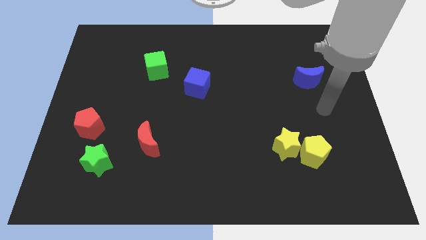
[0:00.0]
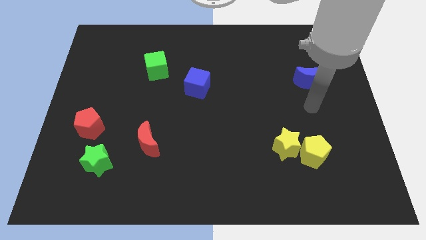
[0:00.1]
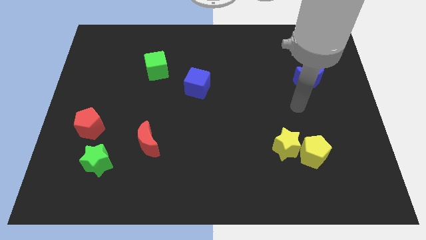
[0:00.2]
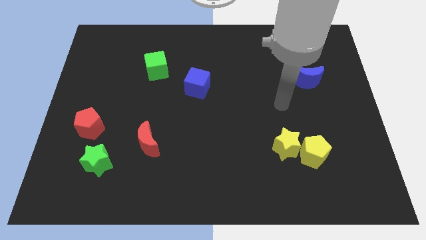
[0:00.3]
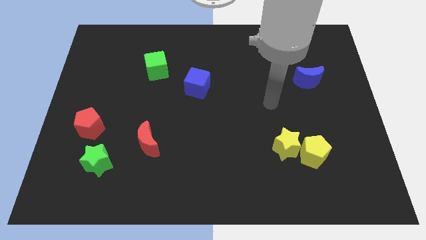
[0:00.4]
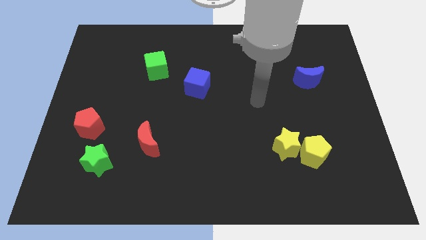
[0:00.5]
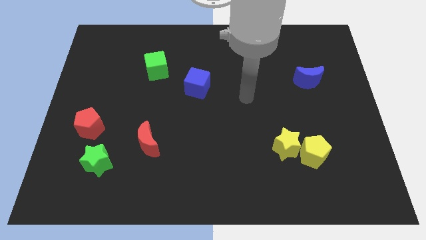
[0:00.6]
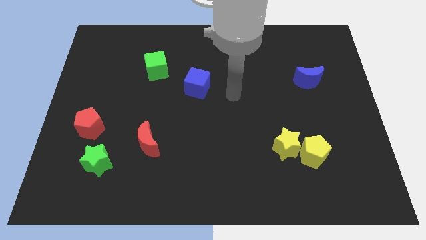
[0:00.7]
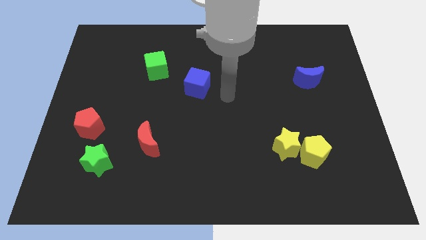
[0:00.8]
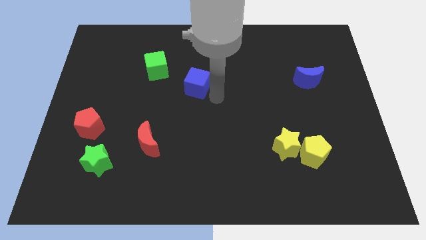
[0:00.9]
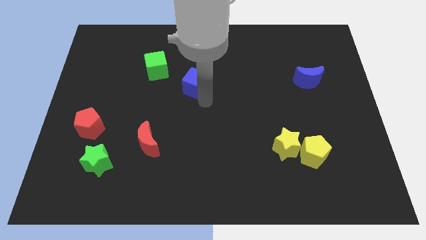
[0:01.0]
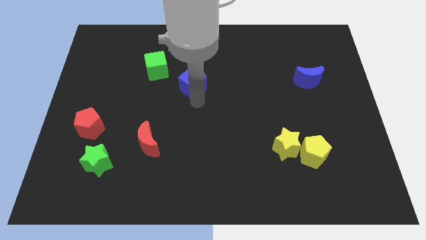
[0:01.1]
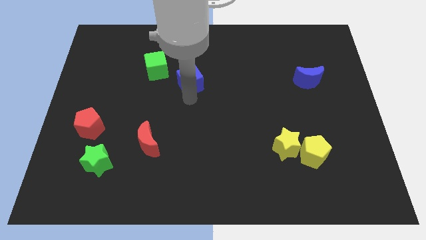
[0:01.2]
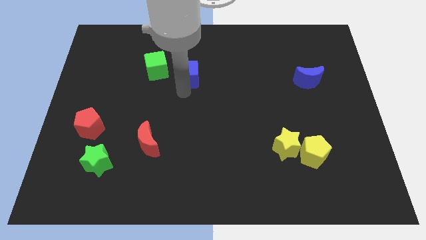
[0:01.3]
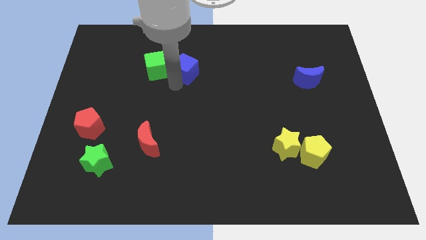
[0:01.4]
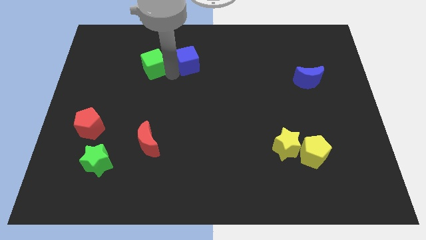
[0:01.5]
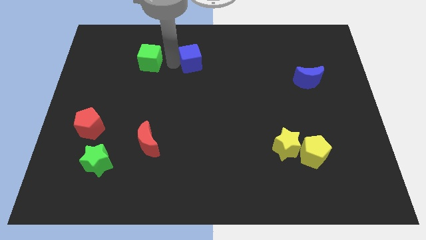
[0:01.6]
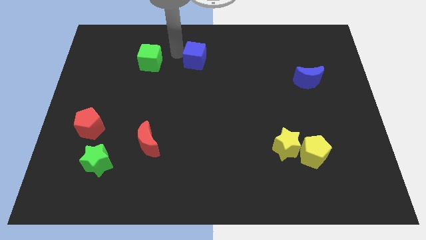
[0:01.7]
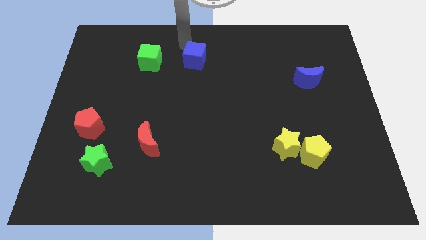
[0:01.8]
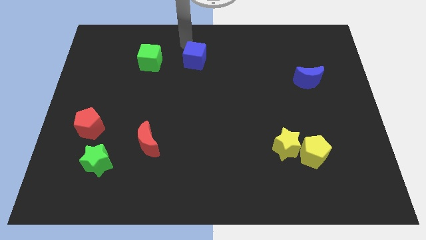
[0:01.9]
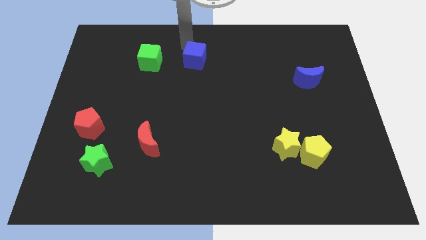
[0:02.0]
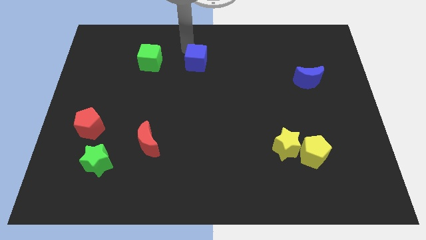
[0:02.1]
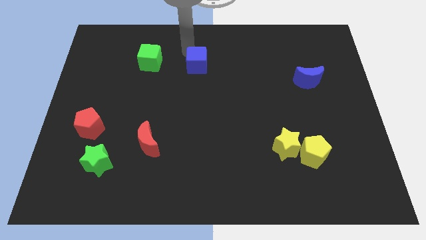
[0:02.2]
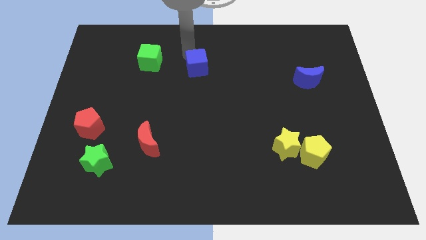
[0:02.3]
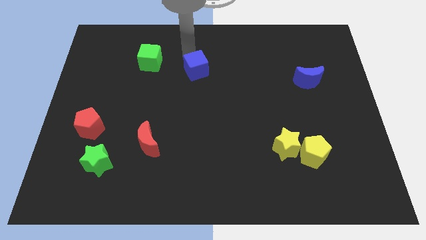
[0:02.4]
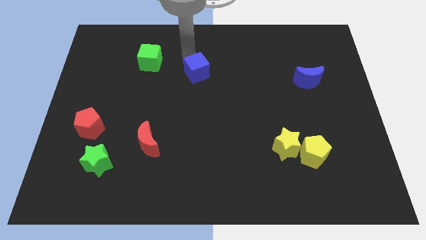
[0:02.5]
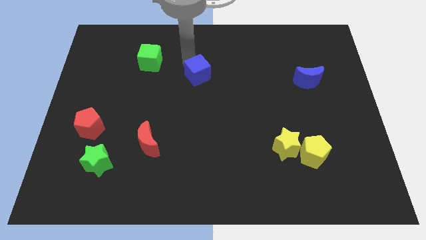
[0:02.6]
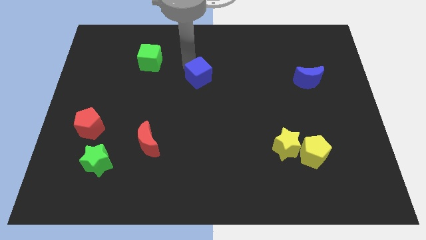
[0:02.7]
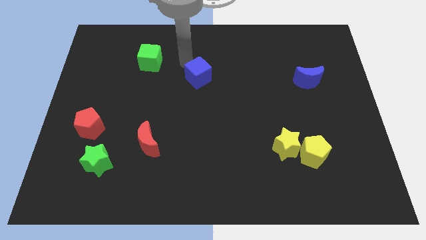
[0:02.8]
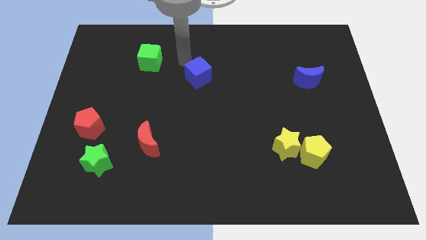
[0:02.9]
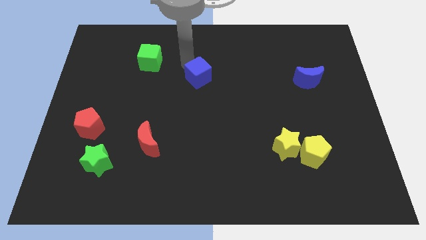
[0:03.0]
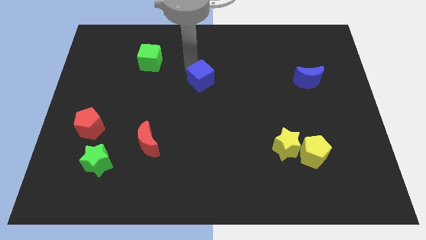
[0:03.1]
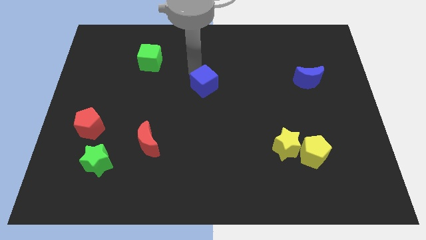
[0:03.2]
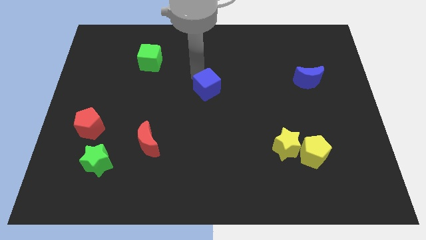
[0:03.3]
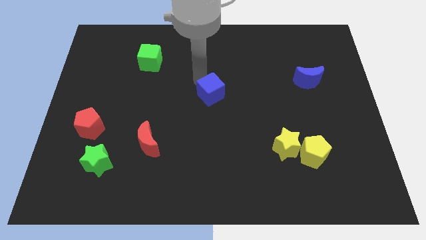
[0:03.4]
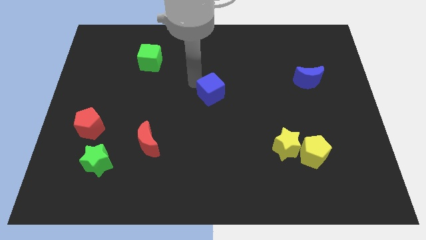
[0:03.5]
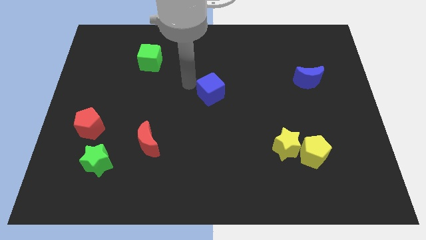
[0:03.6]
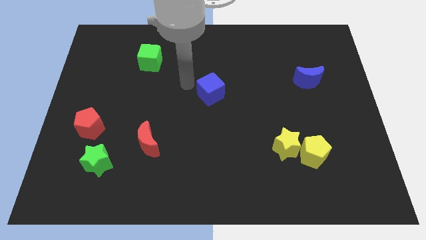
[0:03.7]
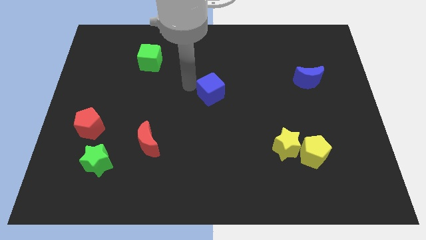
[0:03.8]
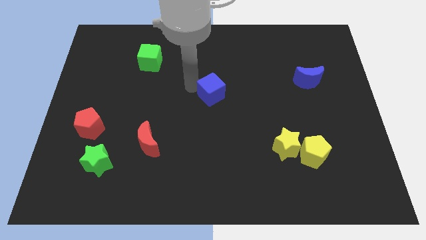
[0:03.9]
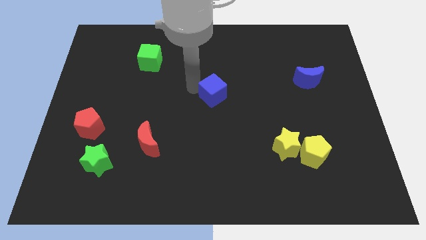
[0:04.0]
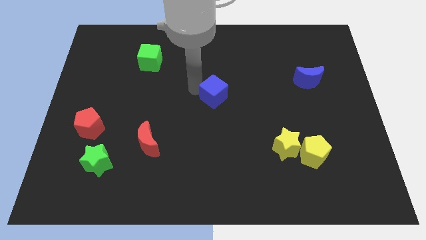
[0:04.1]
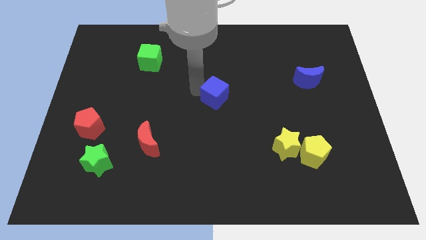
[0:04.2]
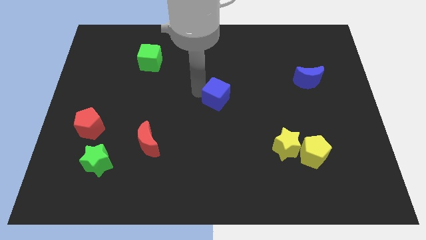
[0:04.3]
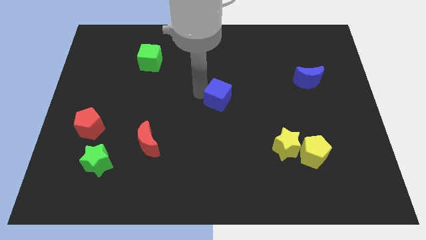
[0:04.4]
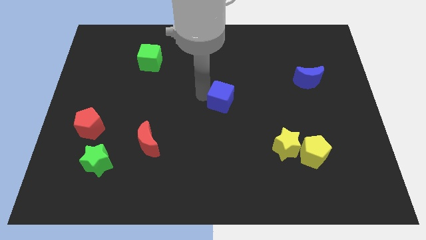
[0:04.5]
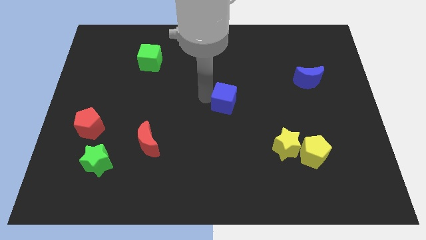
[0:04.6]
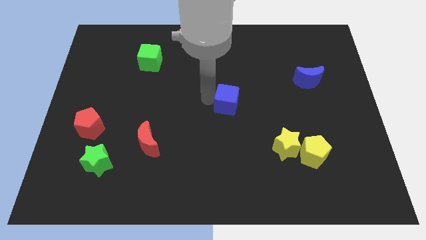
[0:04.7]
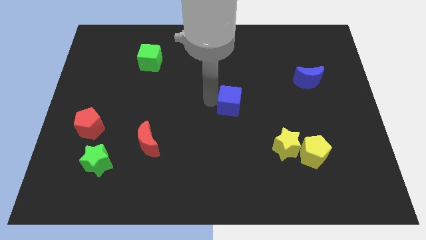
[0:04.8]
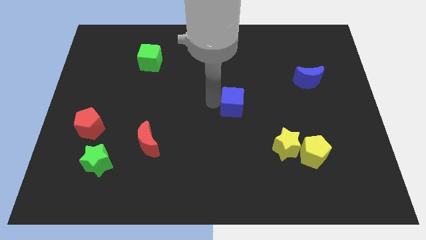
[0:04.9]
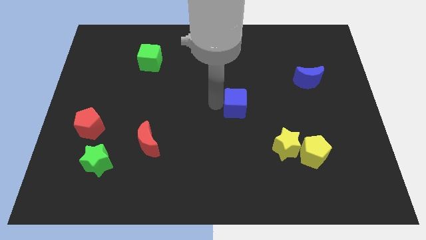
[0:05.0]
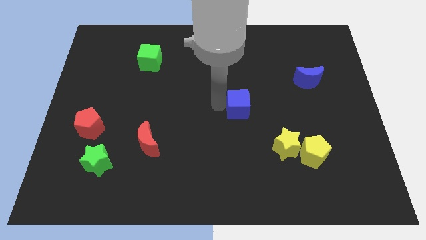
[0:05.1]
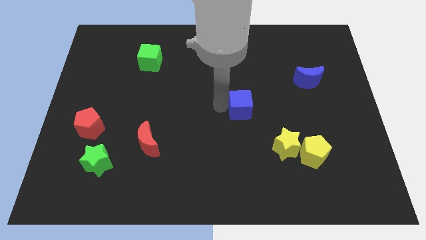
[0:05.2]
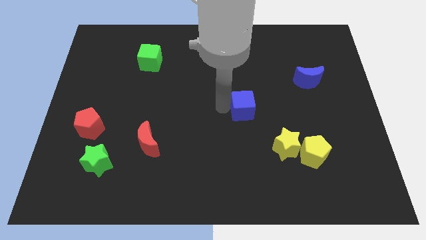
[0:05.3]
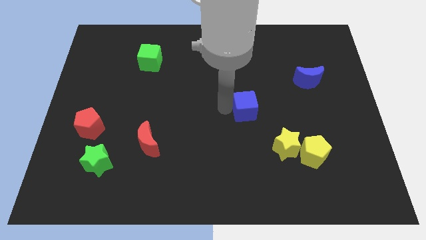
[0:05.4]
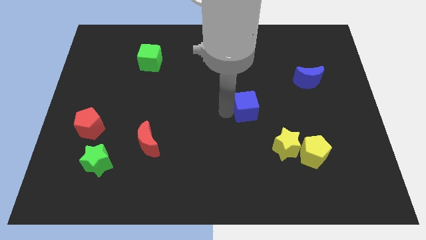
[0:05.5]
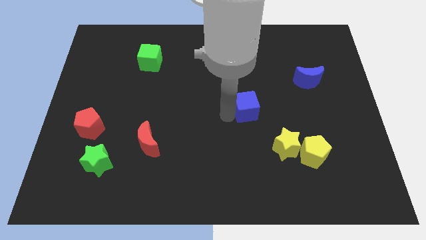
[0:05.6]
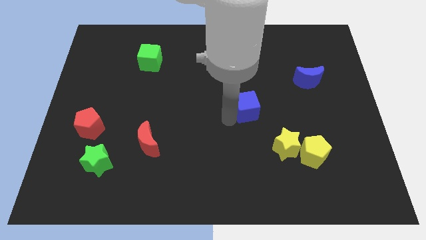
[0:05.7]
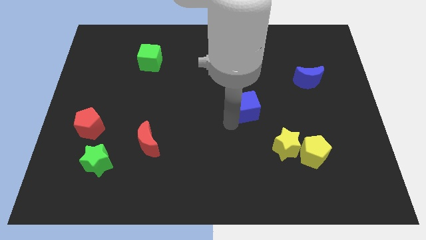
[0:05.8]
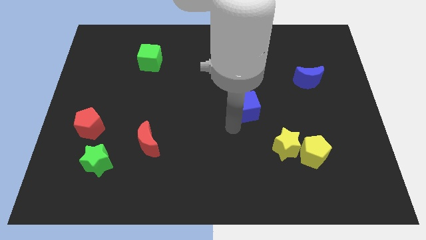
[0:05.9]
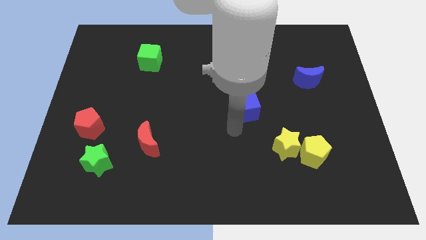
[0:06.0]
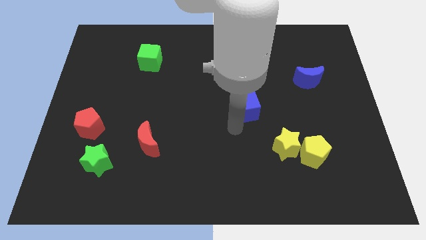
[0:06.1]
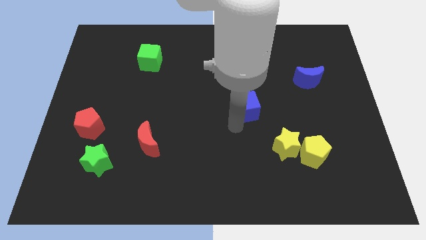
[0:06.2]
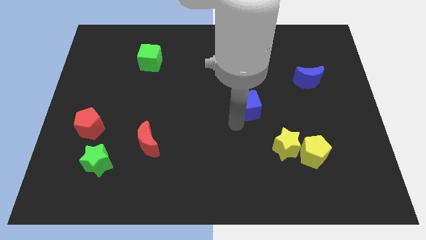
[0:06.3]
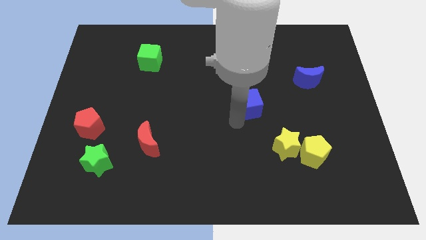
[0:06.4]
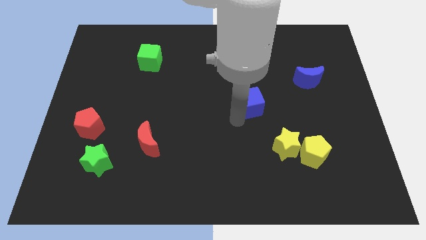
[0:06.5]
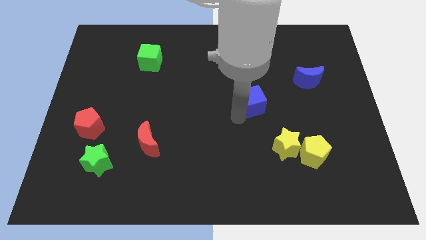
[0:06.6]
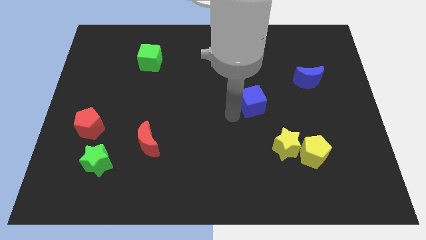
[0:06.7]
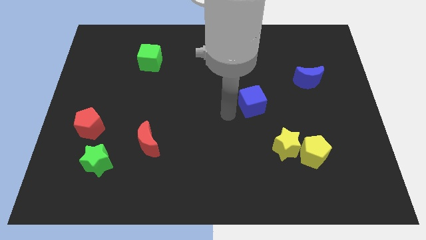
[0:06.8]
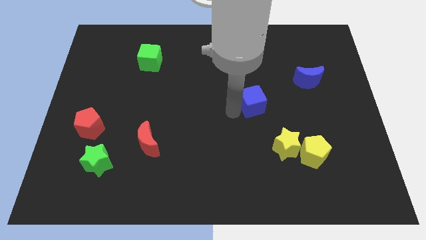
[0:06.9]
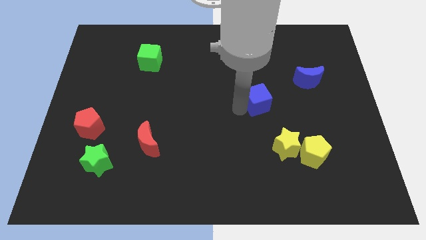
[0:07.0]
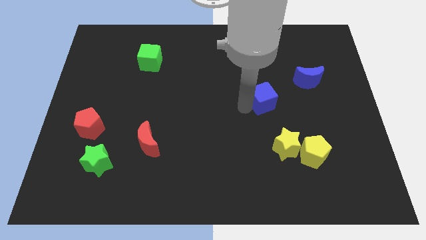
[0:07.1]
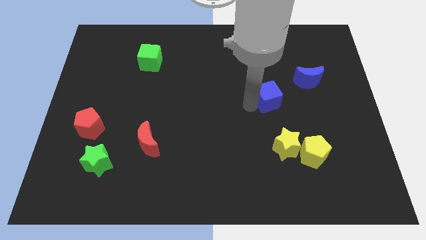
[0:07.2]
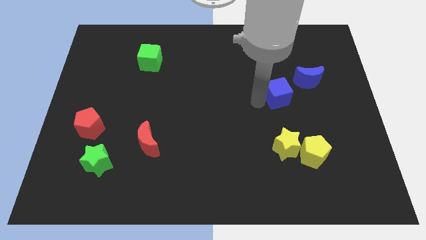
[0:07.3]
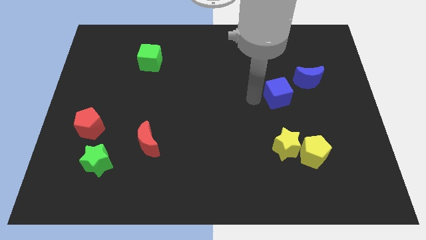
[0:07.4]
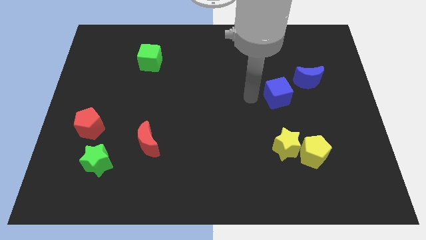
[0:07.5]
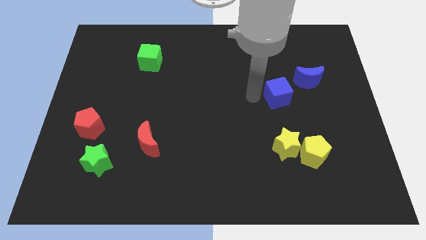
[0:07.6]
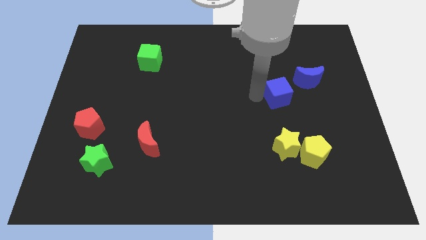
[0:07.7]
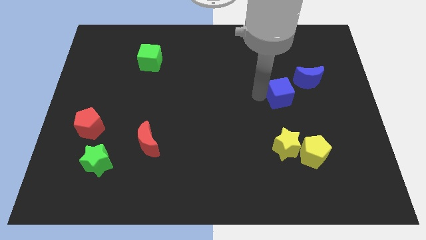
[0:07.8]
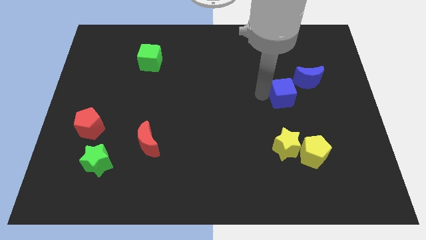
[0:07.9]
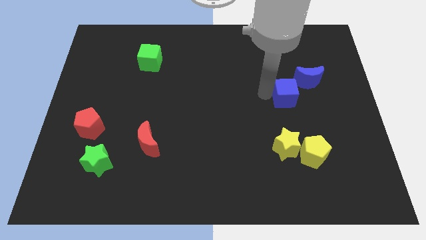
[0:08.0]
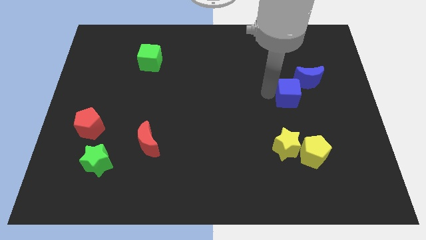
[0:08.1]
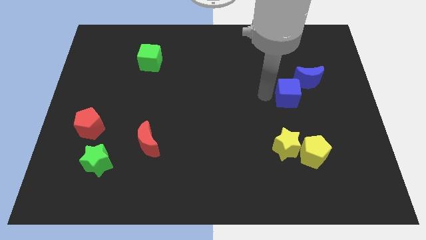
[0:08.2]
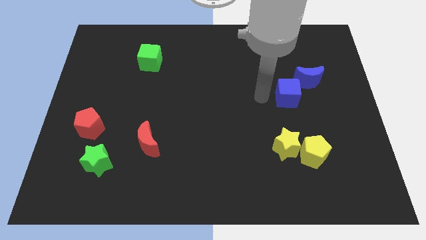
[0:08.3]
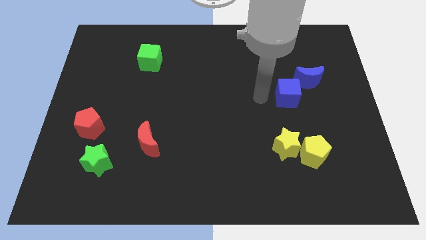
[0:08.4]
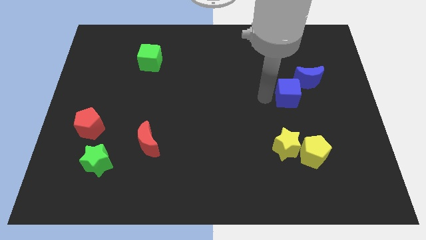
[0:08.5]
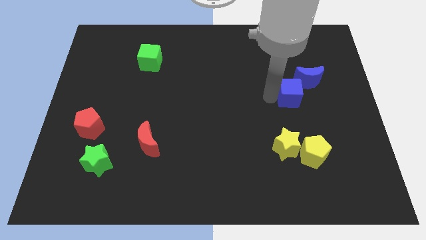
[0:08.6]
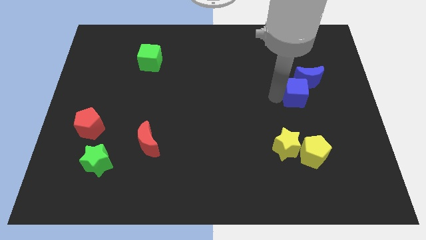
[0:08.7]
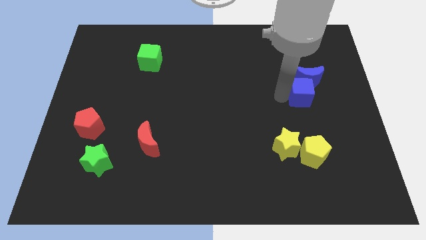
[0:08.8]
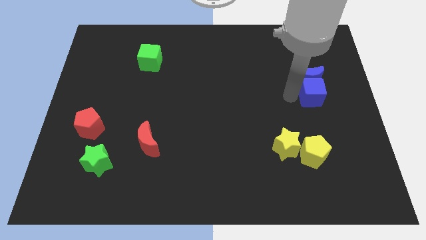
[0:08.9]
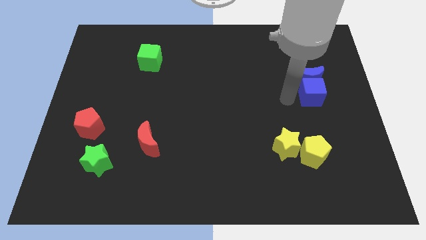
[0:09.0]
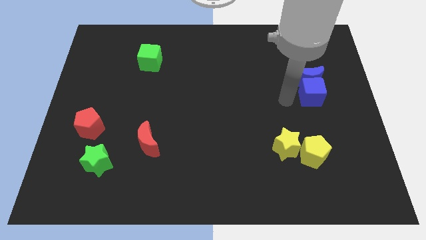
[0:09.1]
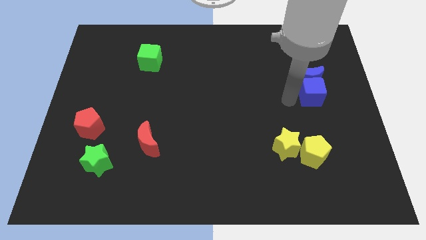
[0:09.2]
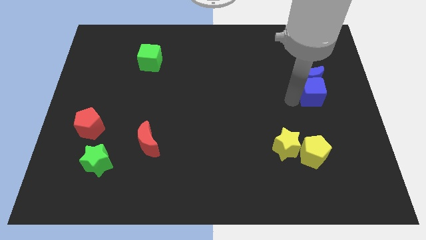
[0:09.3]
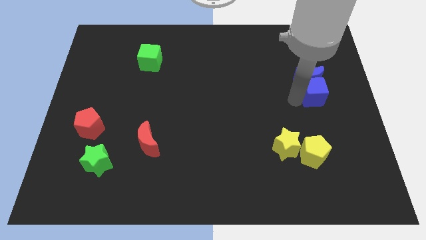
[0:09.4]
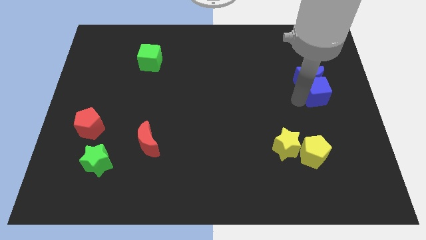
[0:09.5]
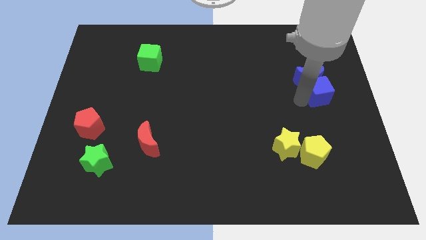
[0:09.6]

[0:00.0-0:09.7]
slide the blue cube to the right side of the board
